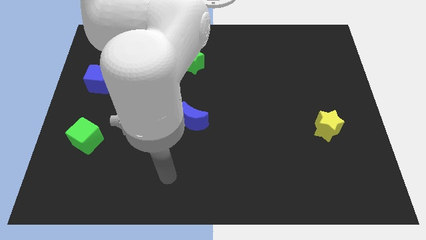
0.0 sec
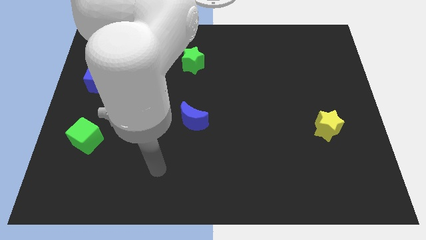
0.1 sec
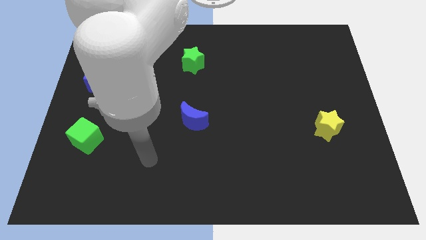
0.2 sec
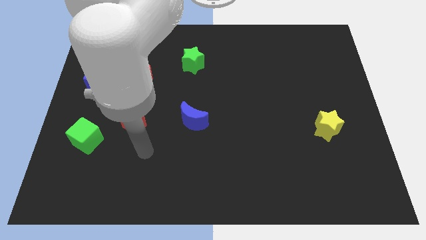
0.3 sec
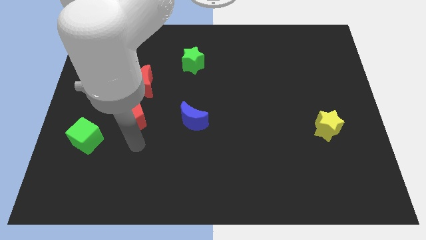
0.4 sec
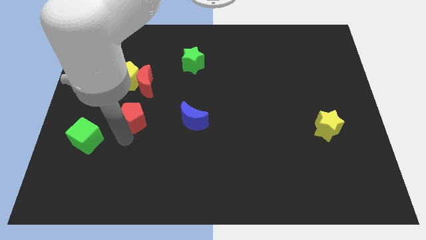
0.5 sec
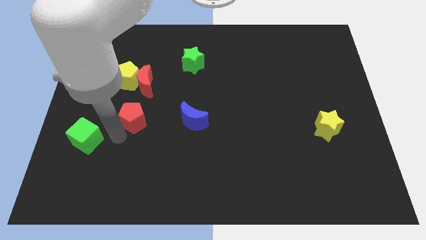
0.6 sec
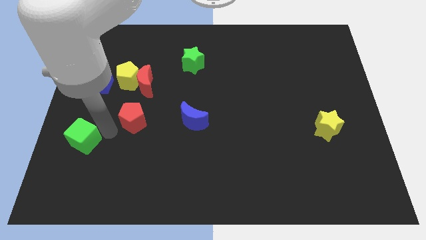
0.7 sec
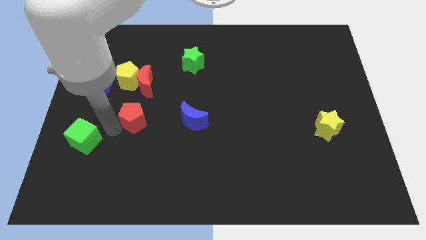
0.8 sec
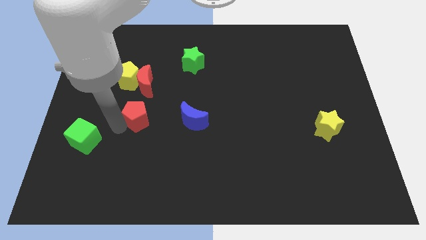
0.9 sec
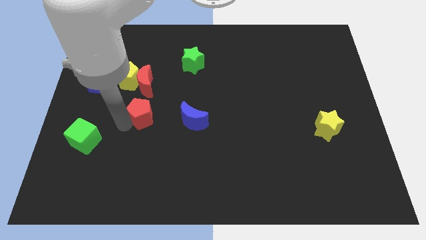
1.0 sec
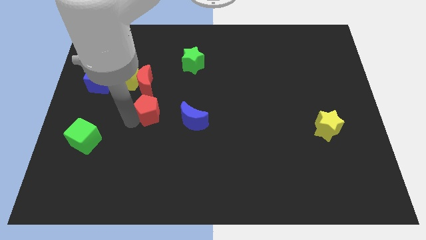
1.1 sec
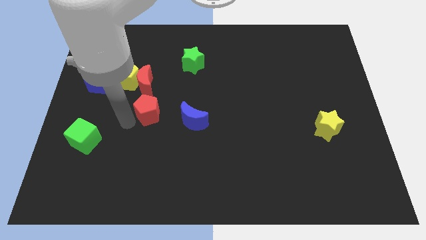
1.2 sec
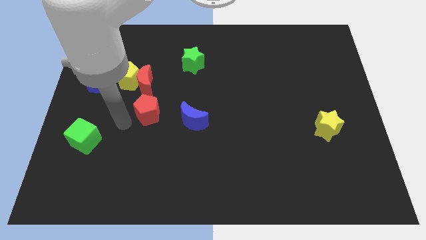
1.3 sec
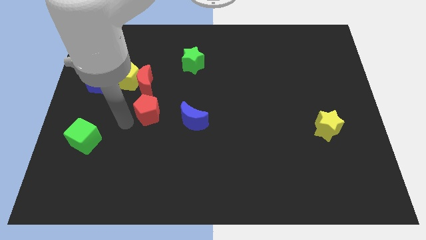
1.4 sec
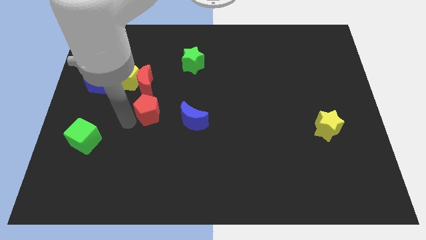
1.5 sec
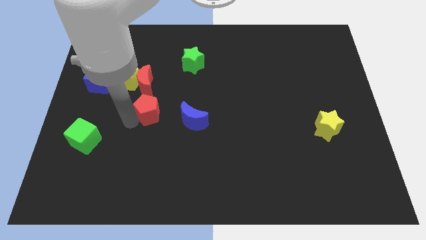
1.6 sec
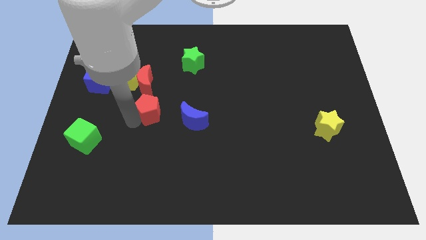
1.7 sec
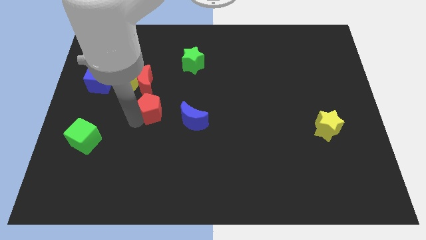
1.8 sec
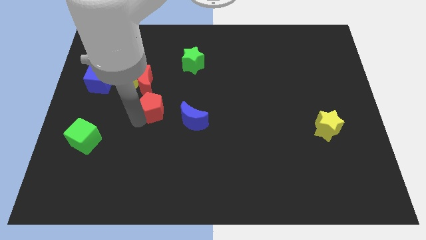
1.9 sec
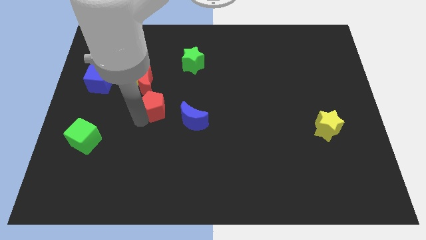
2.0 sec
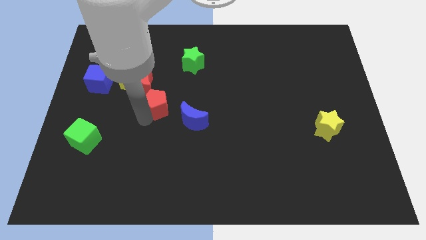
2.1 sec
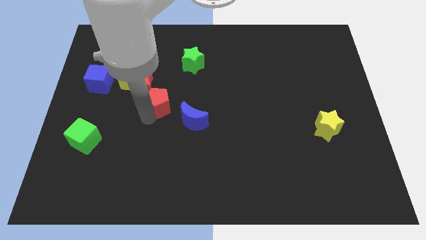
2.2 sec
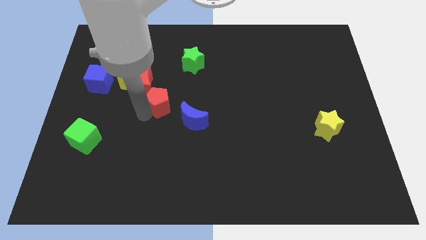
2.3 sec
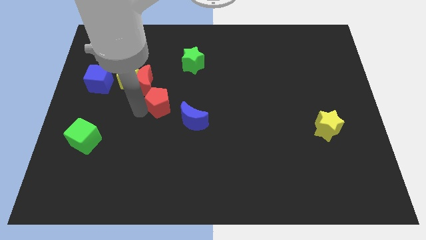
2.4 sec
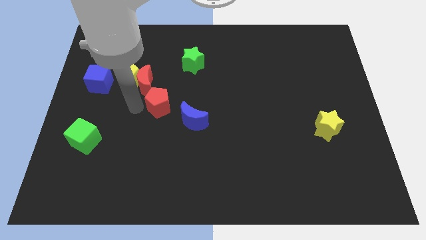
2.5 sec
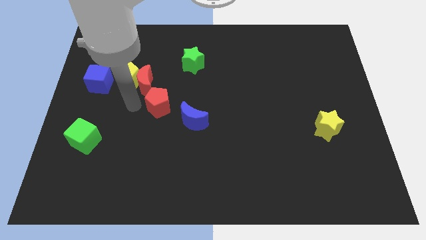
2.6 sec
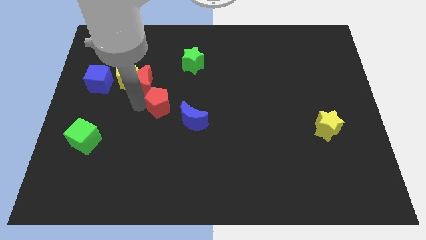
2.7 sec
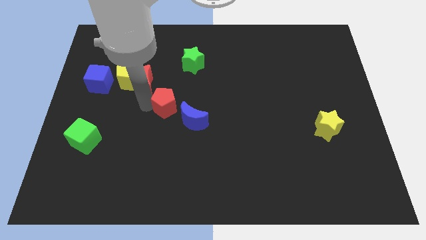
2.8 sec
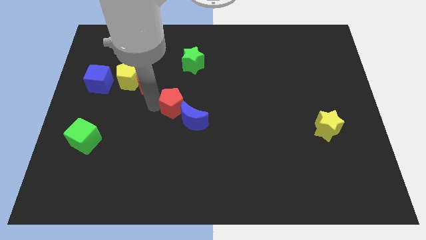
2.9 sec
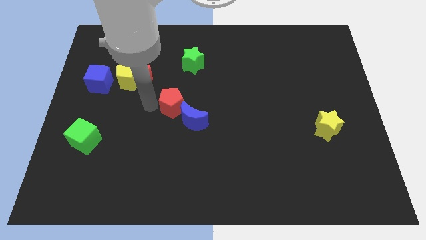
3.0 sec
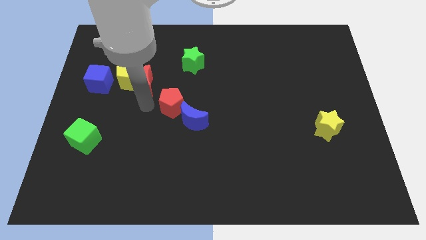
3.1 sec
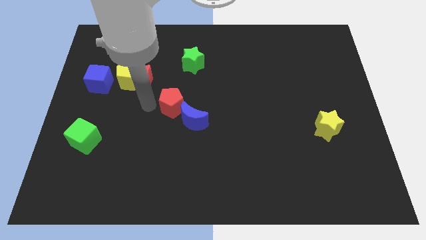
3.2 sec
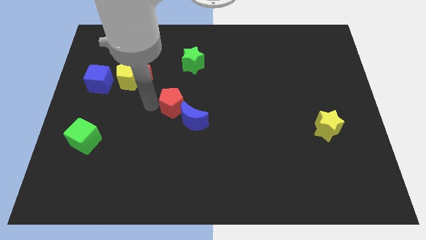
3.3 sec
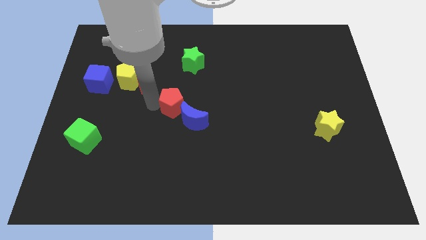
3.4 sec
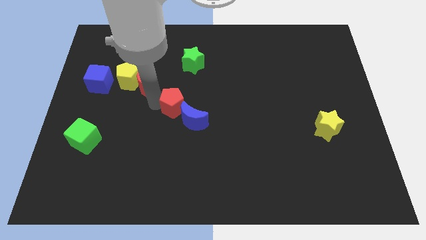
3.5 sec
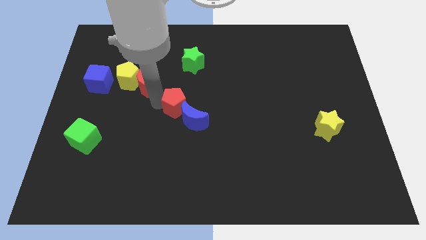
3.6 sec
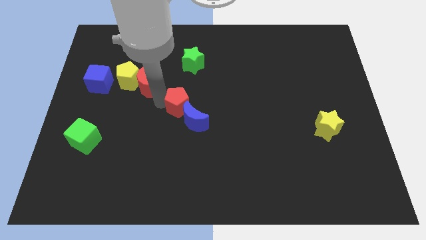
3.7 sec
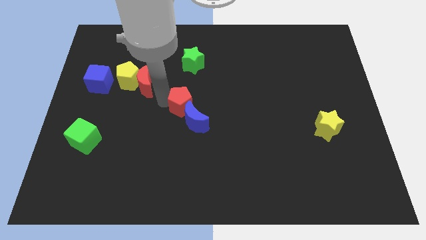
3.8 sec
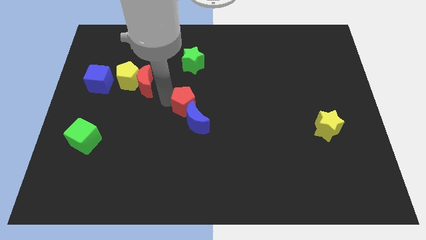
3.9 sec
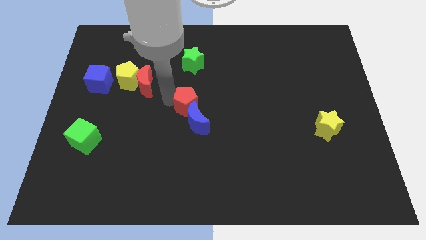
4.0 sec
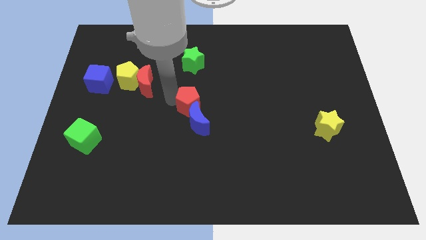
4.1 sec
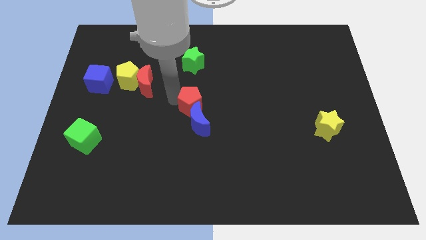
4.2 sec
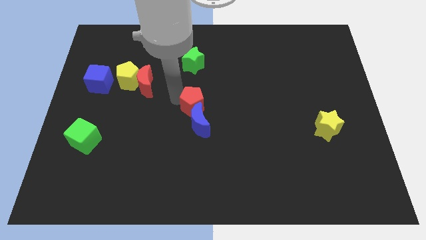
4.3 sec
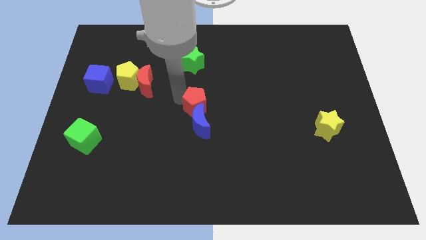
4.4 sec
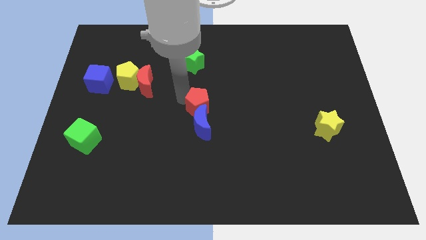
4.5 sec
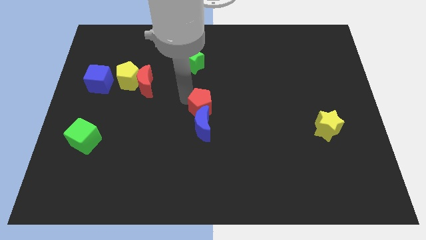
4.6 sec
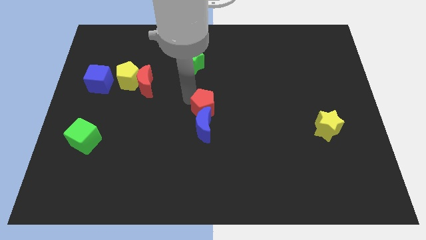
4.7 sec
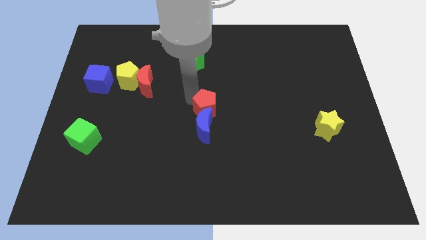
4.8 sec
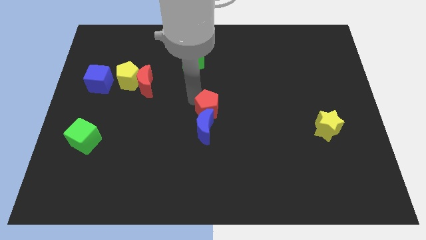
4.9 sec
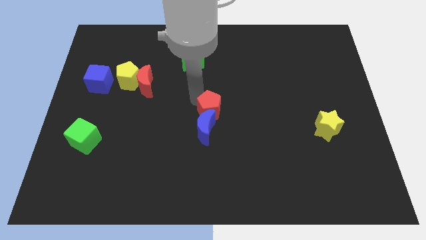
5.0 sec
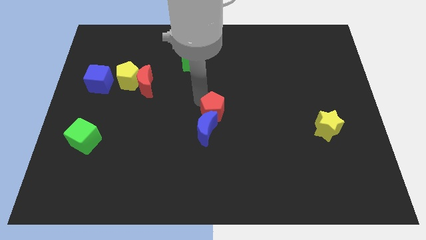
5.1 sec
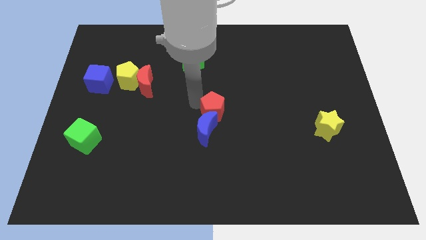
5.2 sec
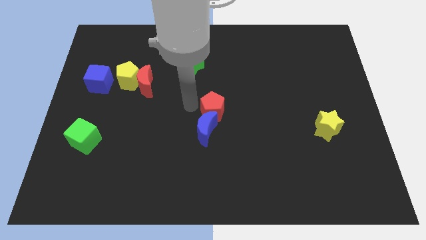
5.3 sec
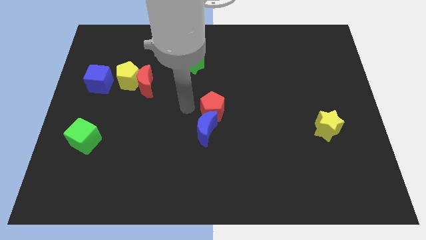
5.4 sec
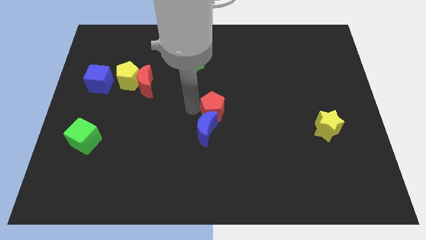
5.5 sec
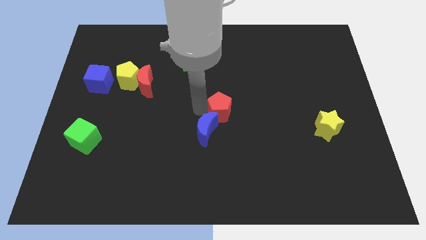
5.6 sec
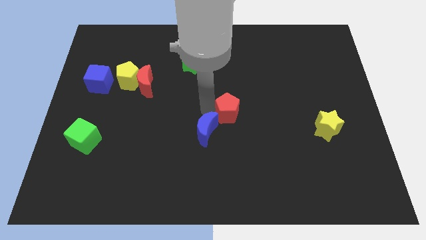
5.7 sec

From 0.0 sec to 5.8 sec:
slide the red pentagon right

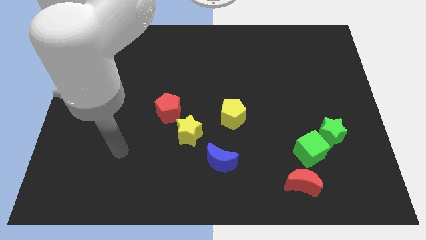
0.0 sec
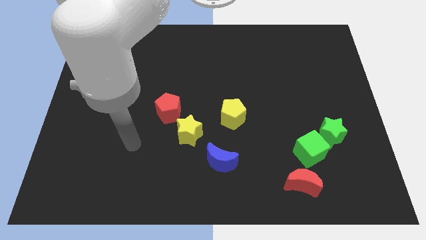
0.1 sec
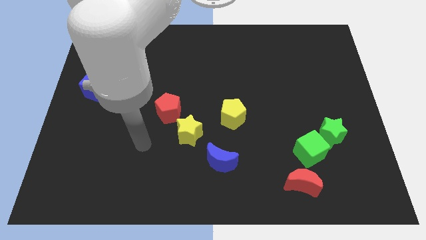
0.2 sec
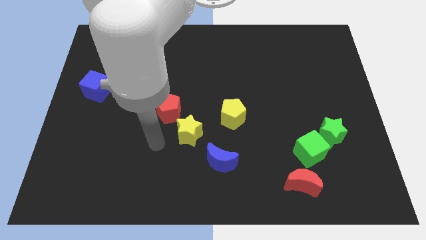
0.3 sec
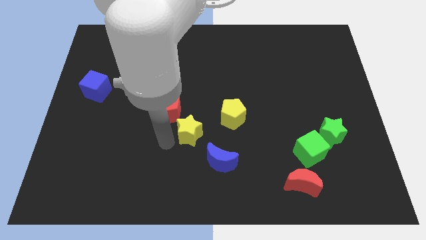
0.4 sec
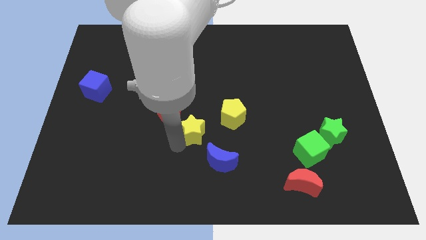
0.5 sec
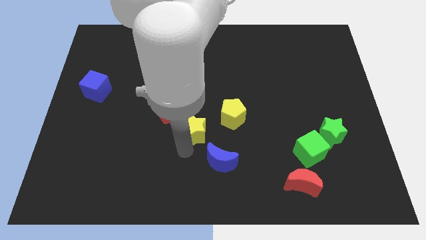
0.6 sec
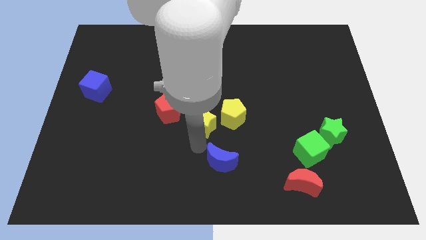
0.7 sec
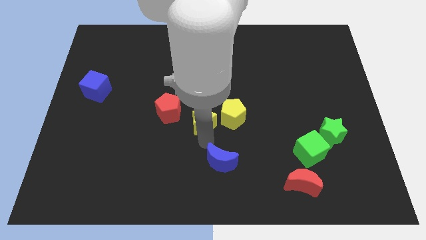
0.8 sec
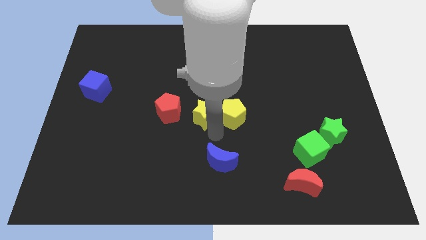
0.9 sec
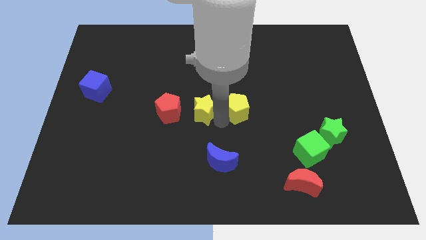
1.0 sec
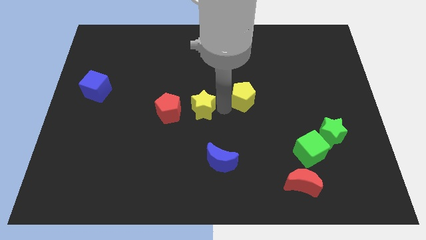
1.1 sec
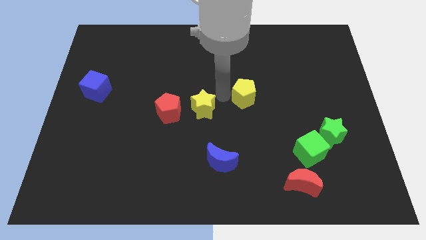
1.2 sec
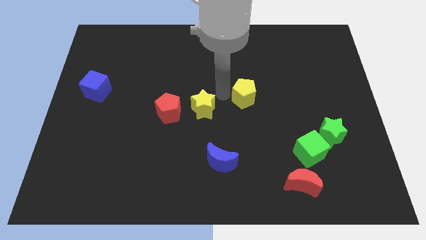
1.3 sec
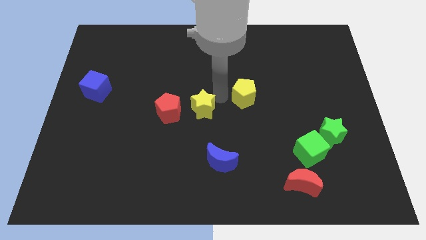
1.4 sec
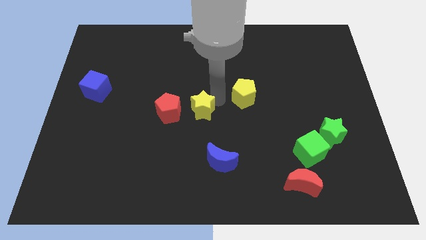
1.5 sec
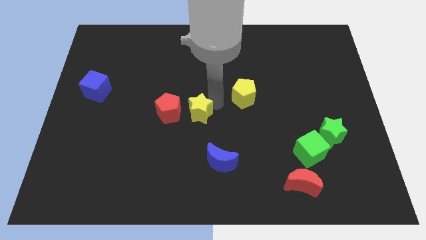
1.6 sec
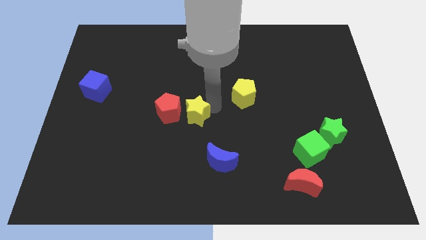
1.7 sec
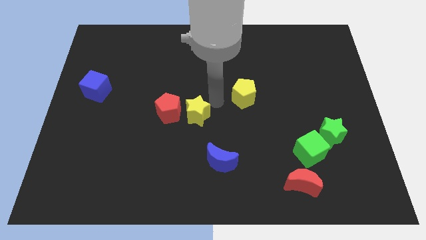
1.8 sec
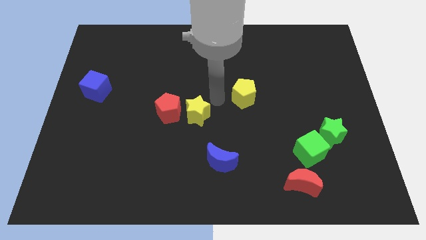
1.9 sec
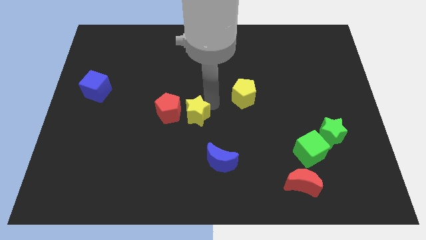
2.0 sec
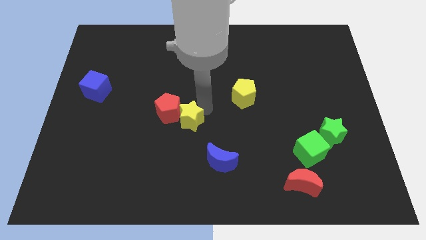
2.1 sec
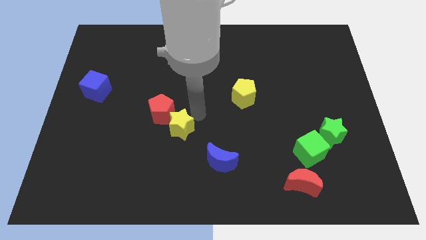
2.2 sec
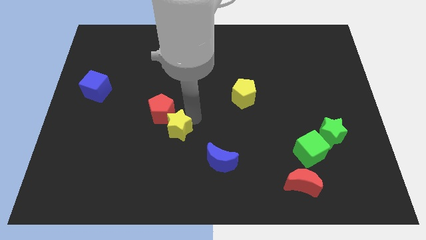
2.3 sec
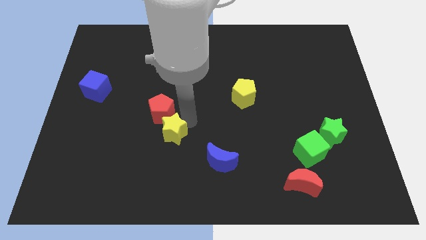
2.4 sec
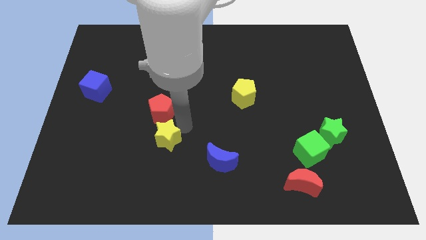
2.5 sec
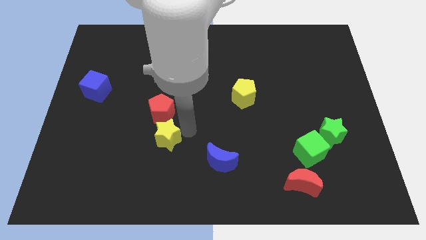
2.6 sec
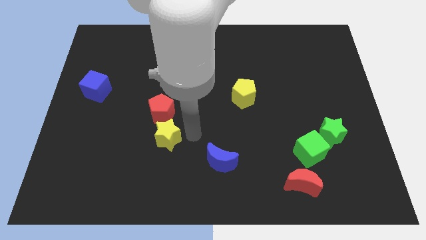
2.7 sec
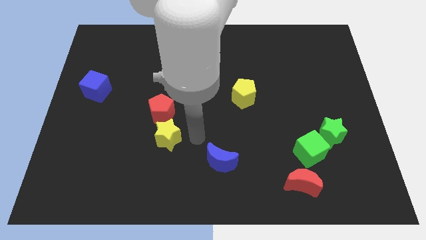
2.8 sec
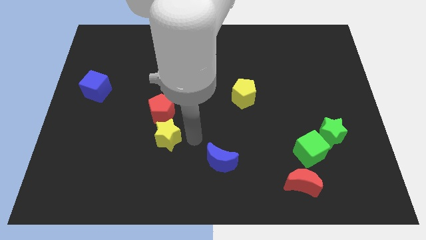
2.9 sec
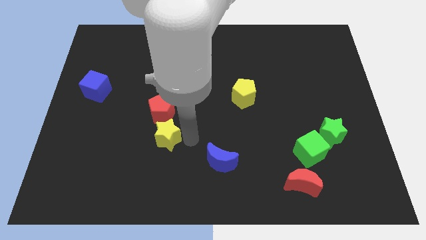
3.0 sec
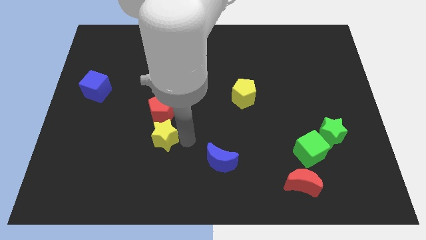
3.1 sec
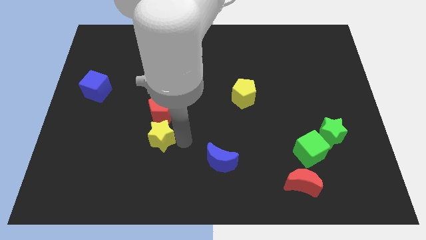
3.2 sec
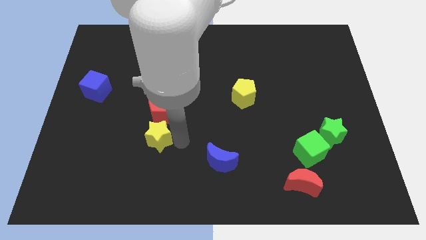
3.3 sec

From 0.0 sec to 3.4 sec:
slide the yellow star to the left somewhat
